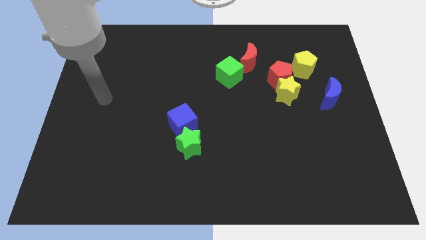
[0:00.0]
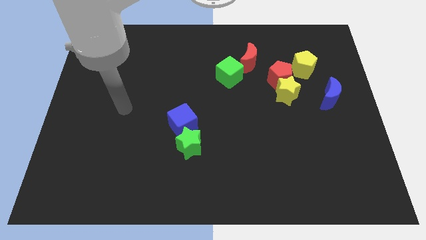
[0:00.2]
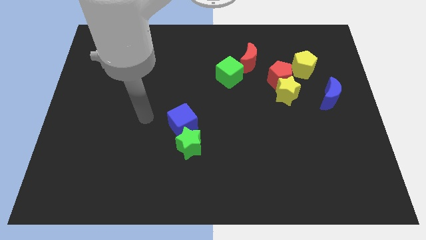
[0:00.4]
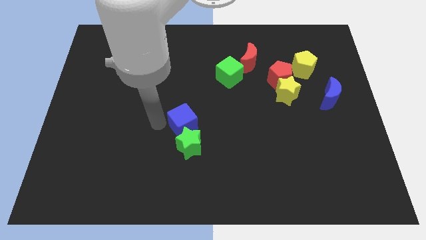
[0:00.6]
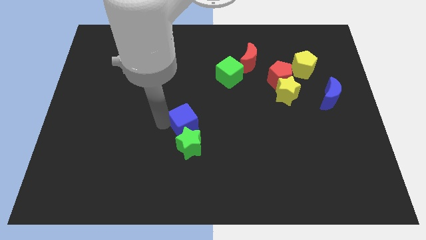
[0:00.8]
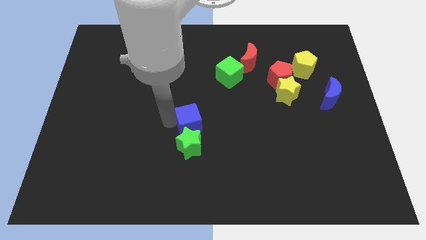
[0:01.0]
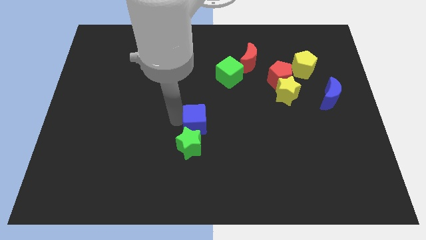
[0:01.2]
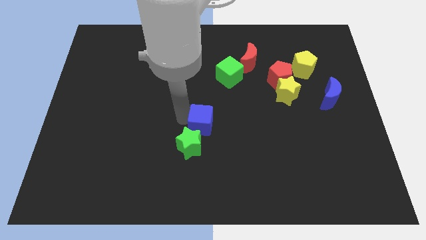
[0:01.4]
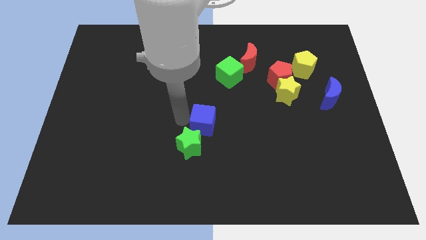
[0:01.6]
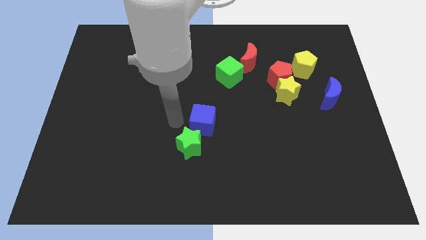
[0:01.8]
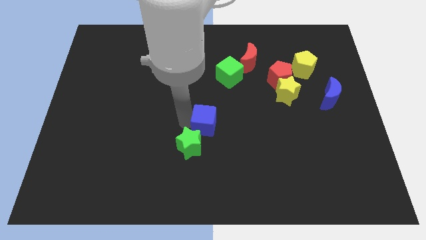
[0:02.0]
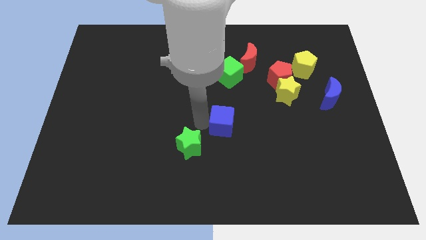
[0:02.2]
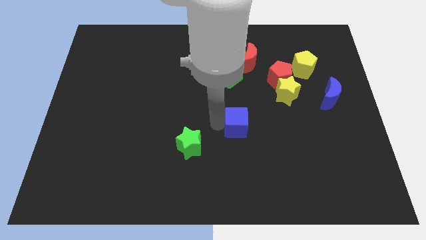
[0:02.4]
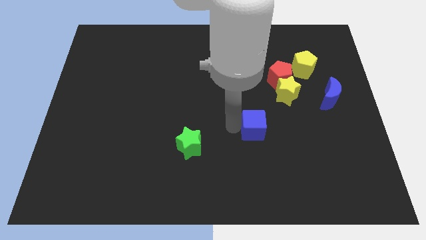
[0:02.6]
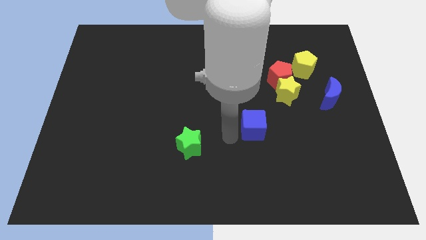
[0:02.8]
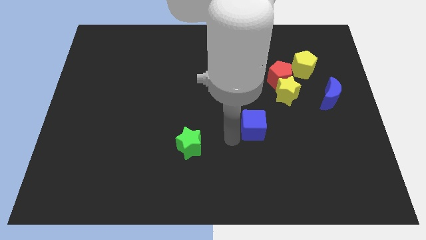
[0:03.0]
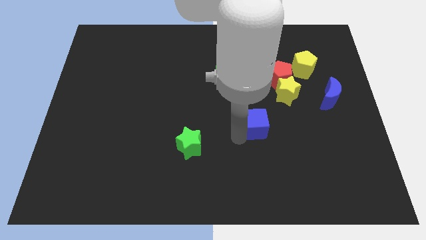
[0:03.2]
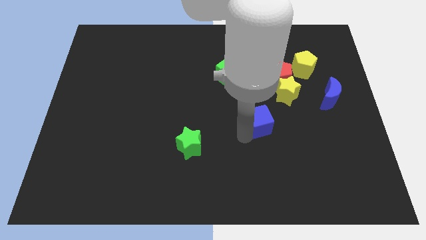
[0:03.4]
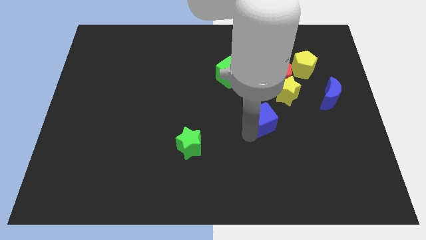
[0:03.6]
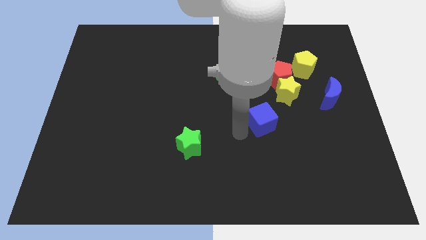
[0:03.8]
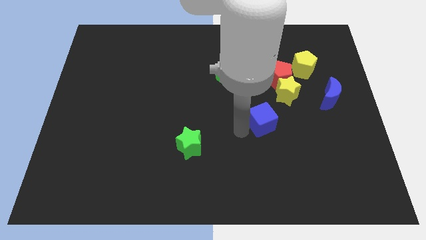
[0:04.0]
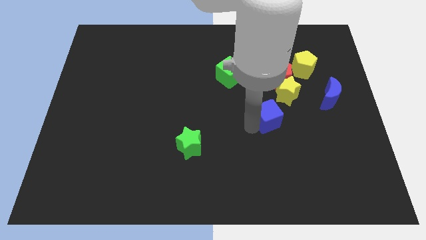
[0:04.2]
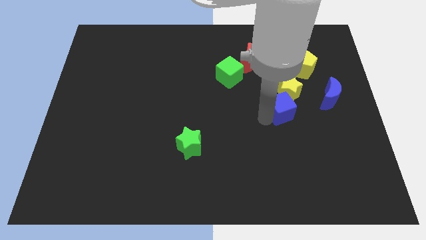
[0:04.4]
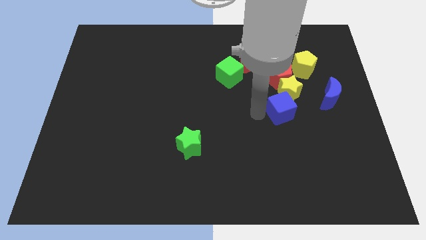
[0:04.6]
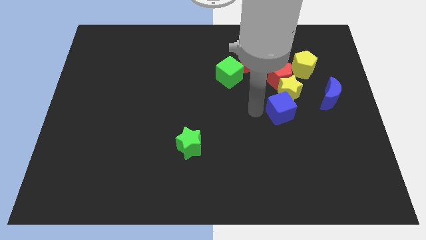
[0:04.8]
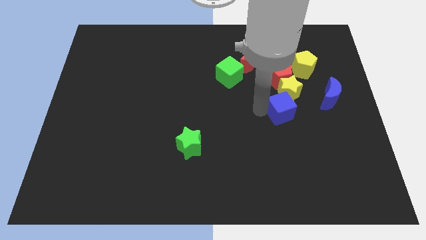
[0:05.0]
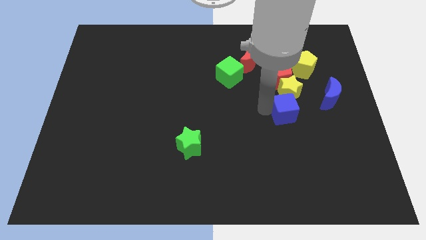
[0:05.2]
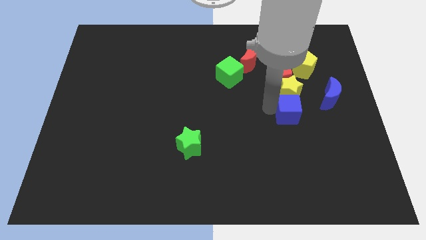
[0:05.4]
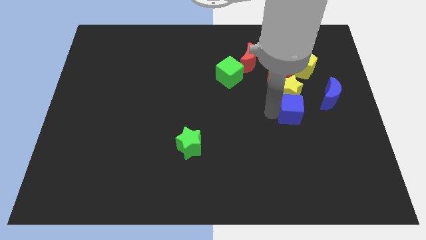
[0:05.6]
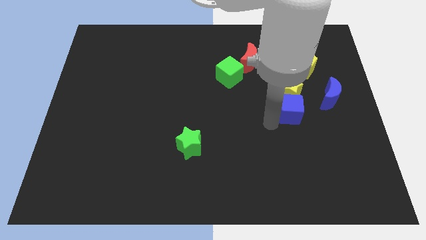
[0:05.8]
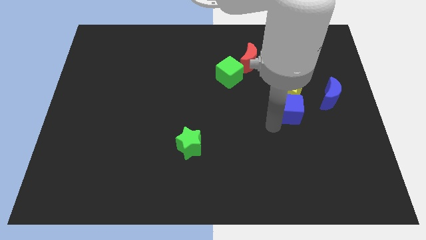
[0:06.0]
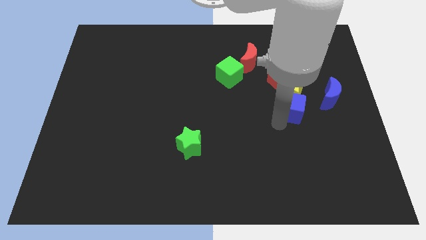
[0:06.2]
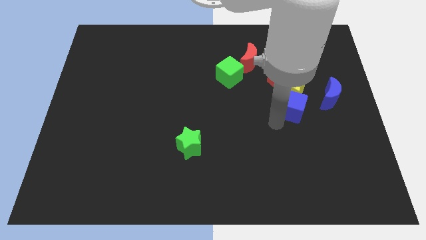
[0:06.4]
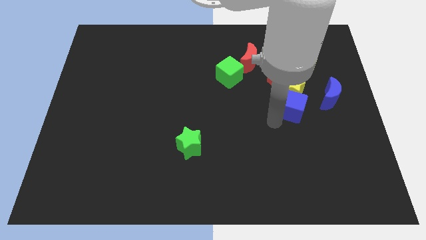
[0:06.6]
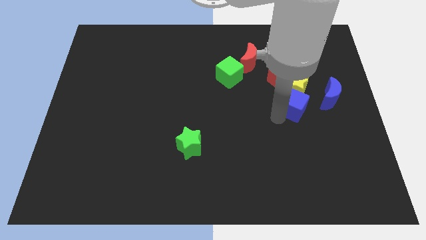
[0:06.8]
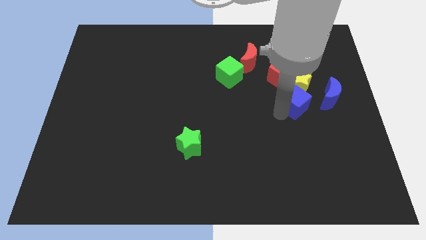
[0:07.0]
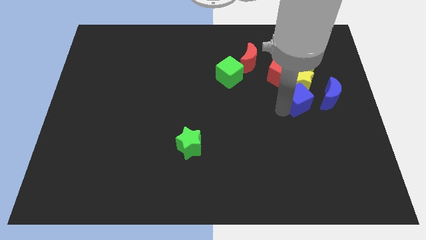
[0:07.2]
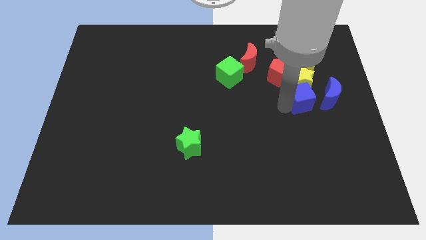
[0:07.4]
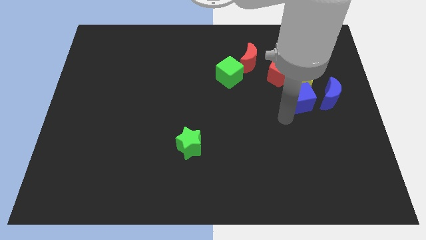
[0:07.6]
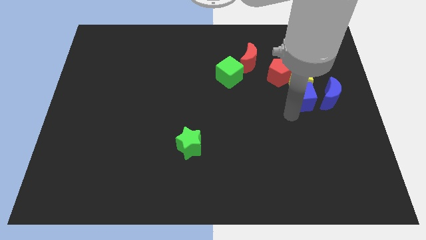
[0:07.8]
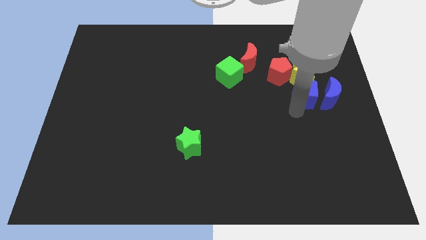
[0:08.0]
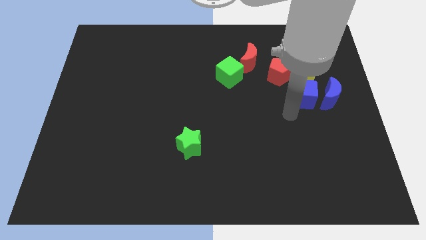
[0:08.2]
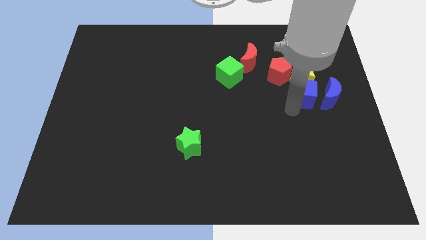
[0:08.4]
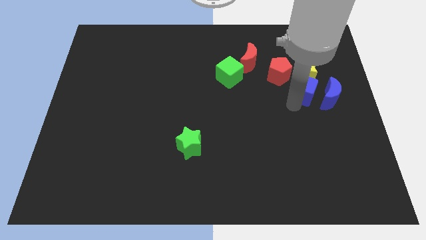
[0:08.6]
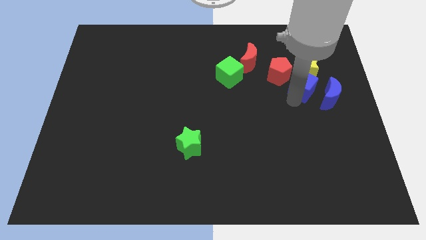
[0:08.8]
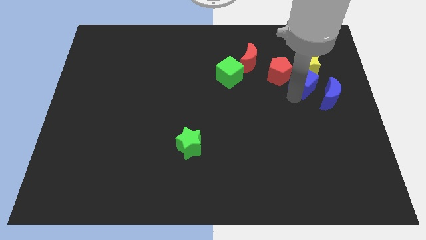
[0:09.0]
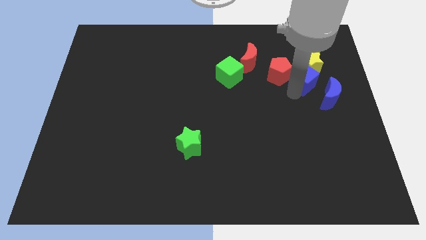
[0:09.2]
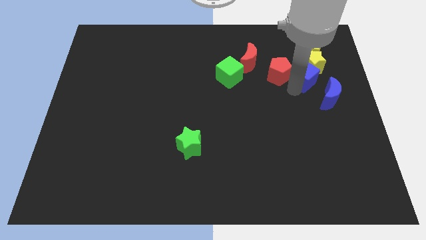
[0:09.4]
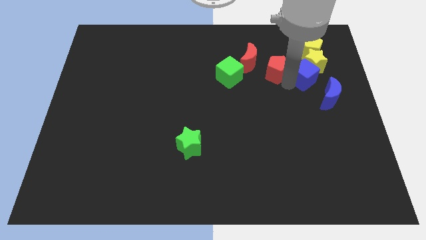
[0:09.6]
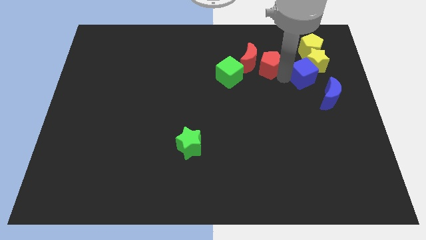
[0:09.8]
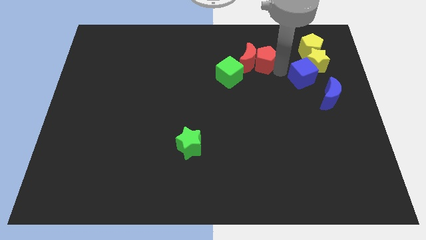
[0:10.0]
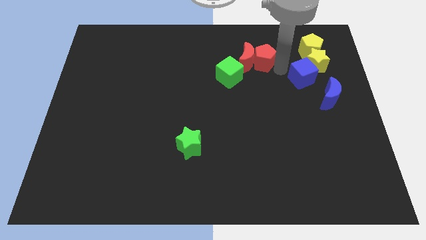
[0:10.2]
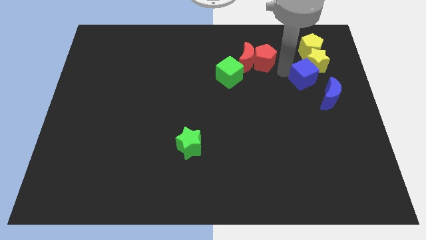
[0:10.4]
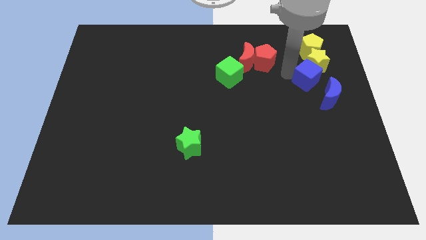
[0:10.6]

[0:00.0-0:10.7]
push the blue cube above the blue moon

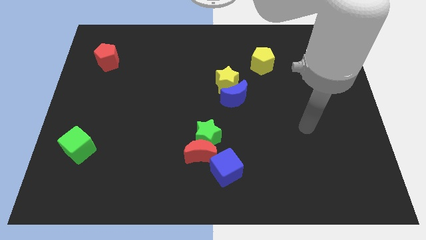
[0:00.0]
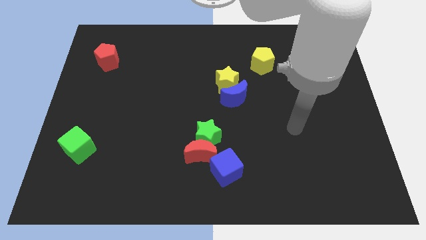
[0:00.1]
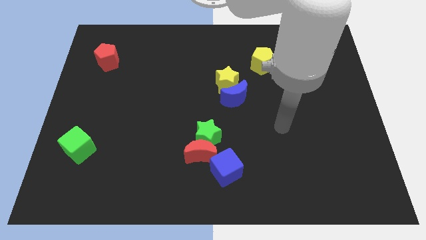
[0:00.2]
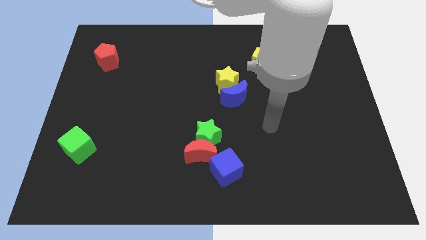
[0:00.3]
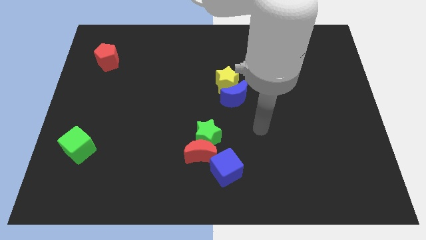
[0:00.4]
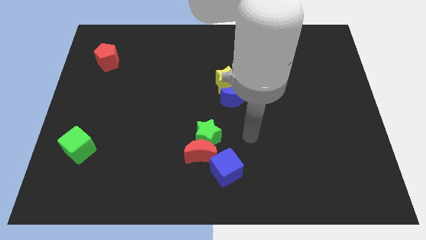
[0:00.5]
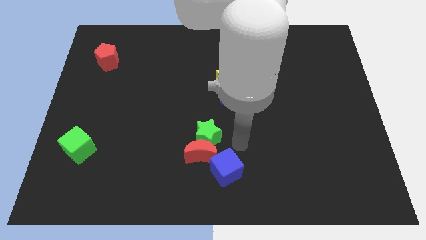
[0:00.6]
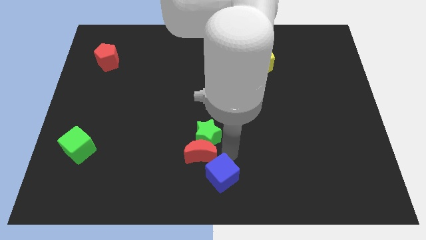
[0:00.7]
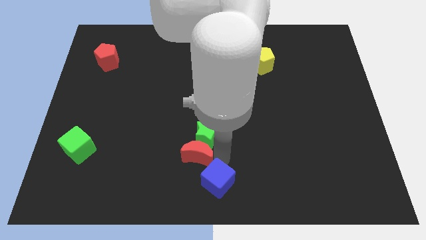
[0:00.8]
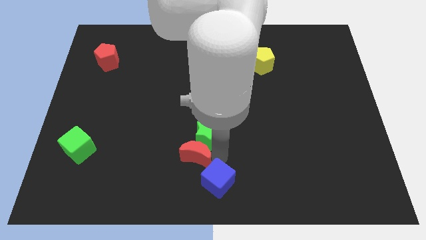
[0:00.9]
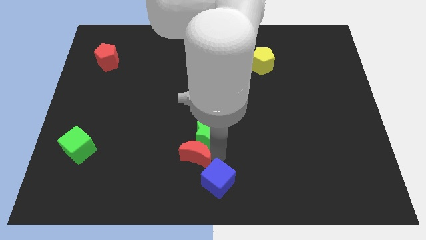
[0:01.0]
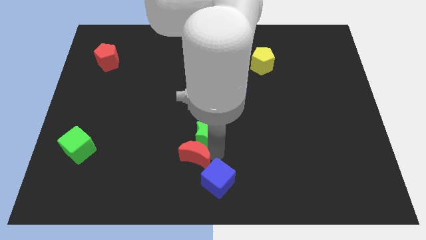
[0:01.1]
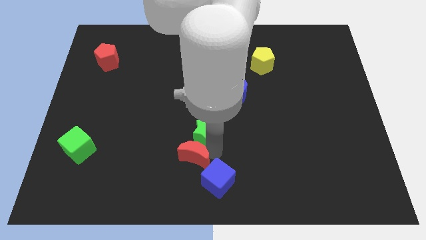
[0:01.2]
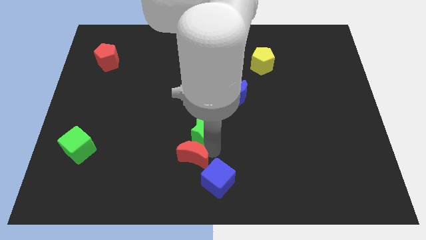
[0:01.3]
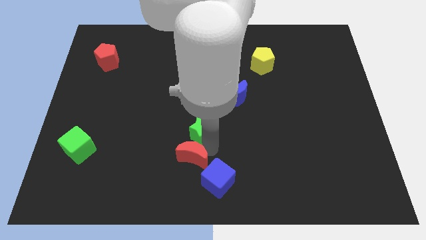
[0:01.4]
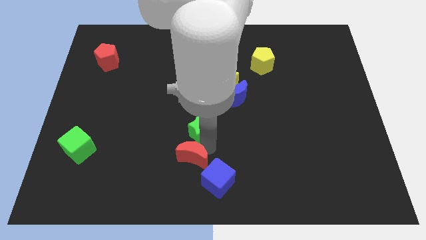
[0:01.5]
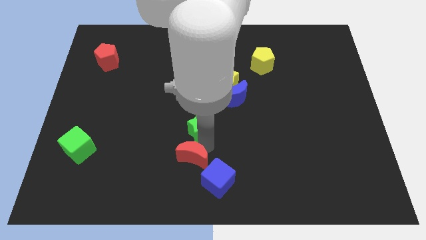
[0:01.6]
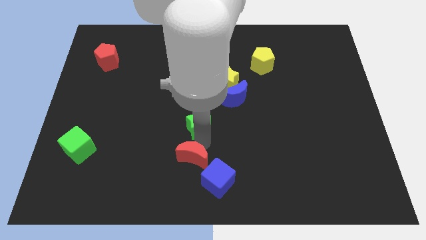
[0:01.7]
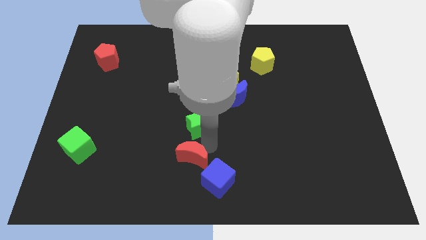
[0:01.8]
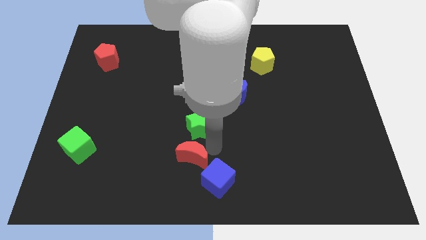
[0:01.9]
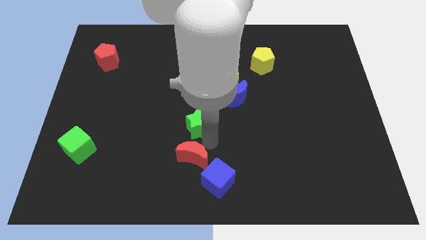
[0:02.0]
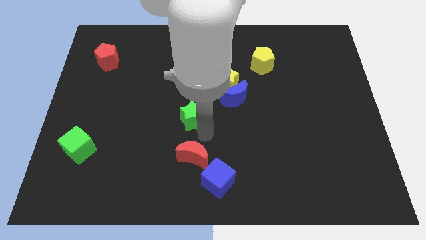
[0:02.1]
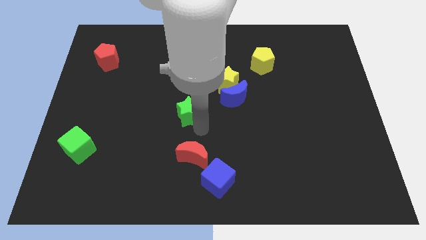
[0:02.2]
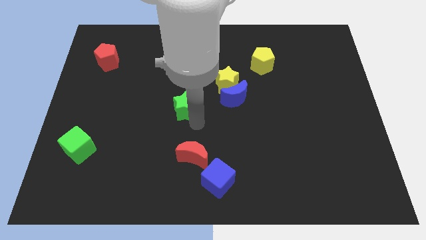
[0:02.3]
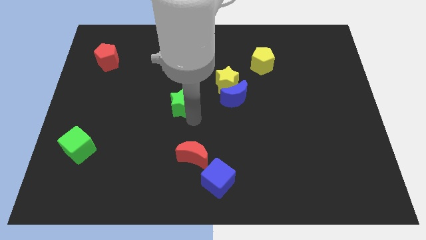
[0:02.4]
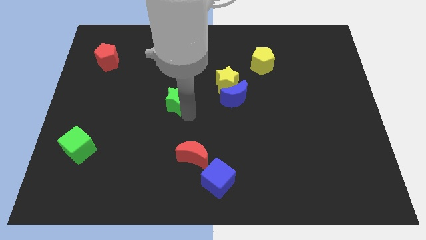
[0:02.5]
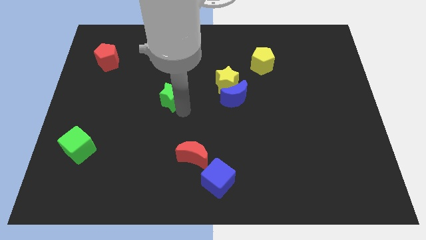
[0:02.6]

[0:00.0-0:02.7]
push the green star to the left side of the yellow star
